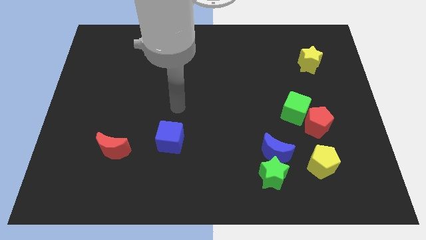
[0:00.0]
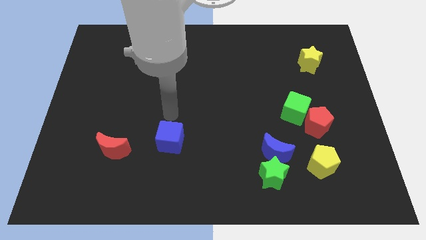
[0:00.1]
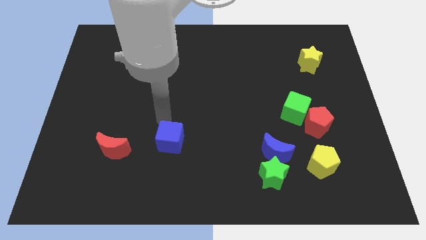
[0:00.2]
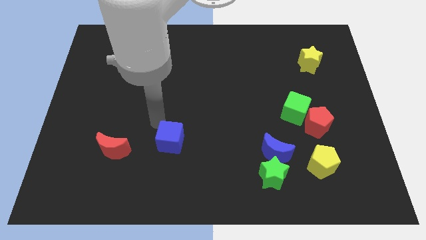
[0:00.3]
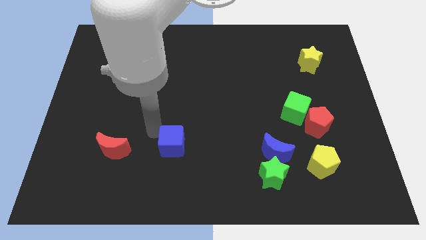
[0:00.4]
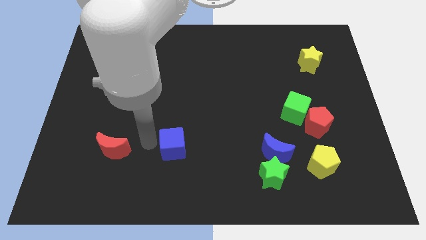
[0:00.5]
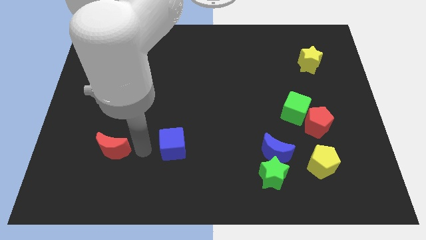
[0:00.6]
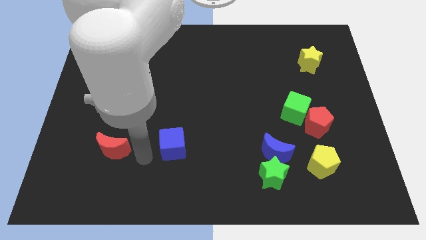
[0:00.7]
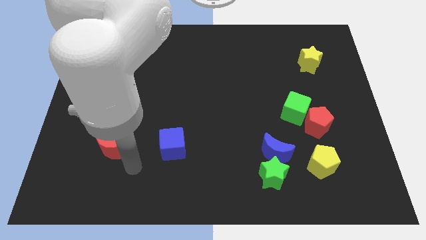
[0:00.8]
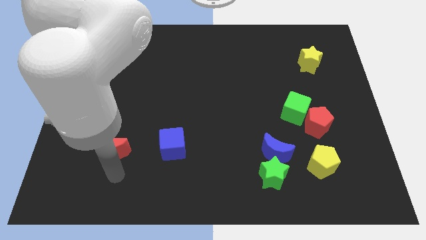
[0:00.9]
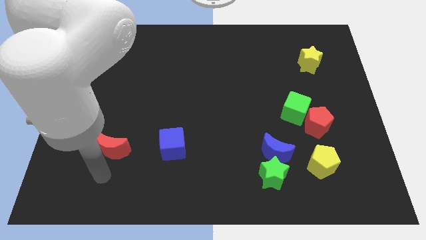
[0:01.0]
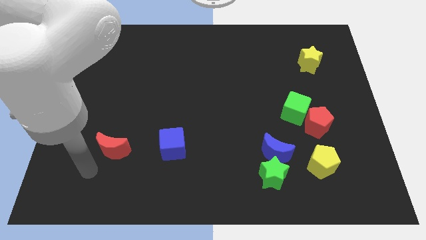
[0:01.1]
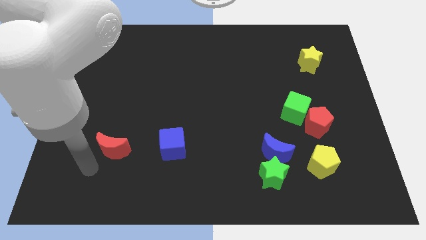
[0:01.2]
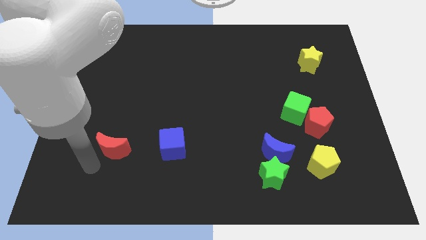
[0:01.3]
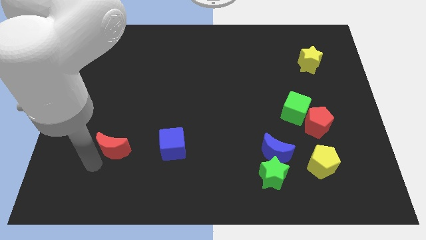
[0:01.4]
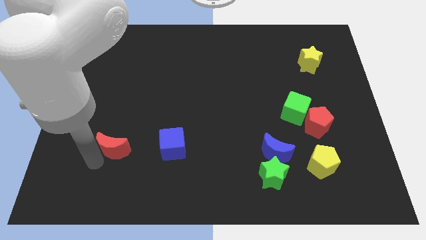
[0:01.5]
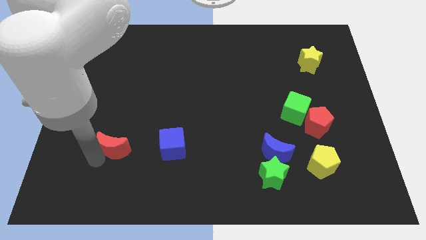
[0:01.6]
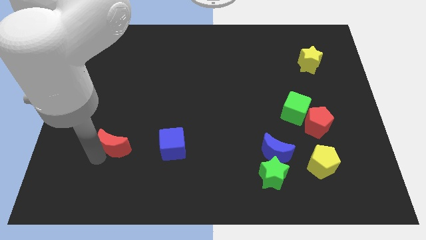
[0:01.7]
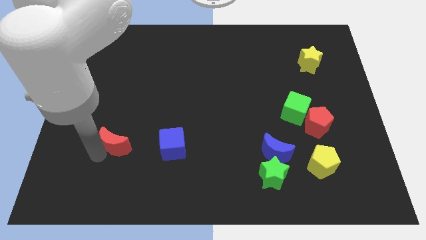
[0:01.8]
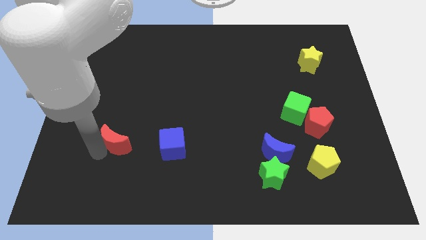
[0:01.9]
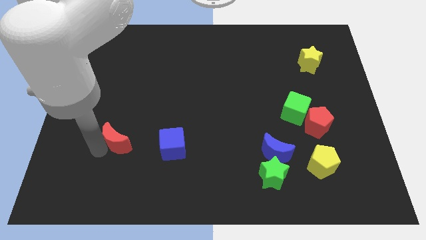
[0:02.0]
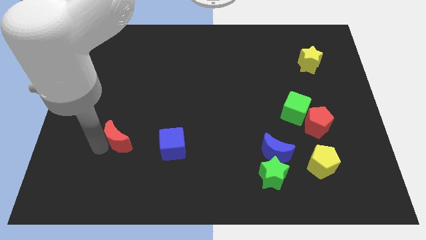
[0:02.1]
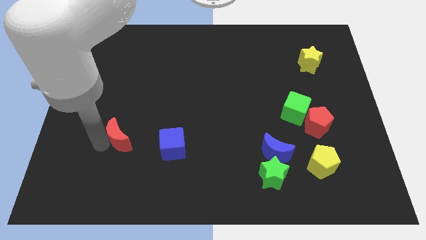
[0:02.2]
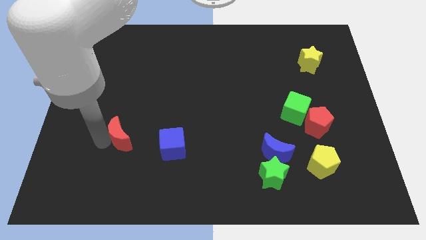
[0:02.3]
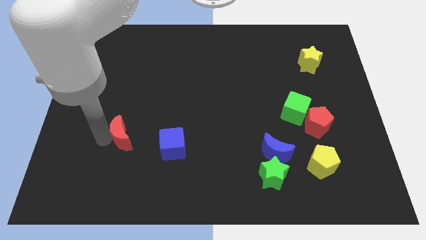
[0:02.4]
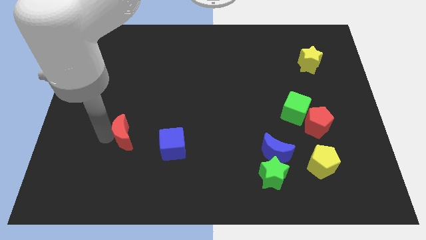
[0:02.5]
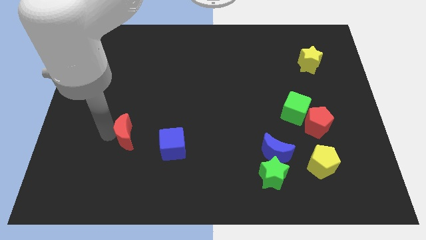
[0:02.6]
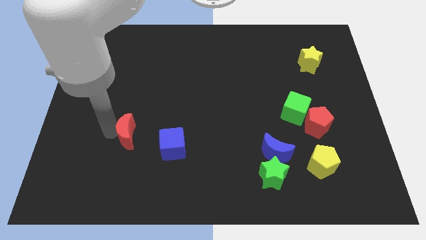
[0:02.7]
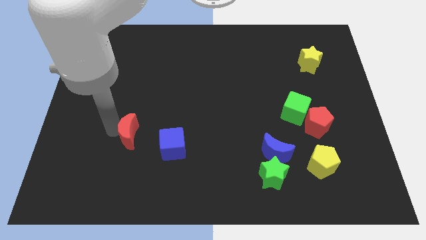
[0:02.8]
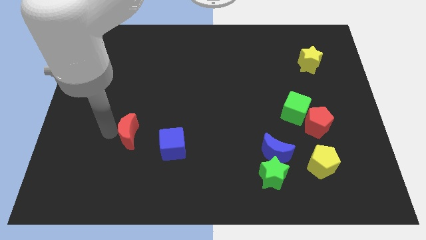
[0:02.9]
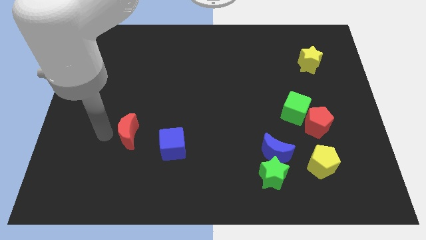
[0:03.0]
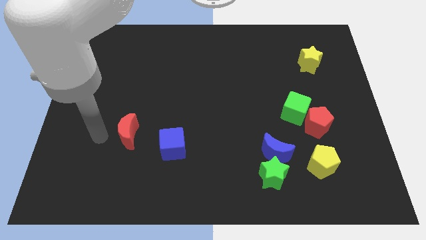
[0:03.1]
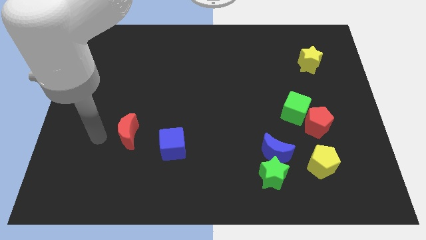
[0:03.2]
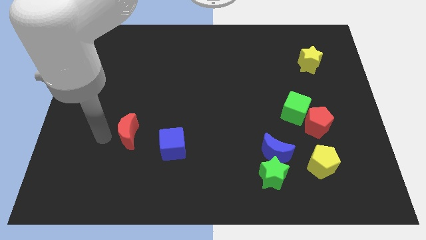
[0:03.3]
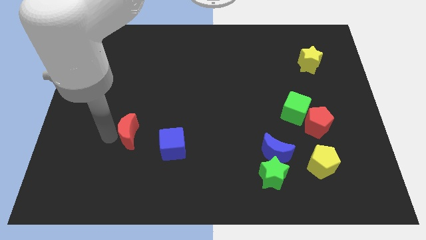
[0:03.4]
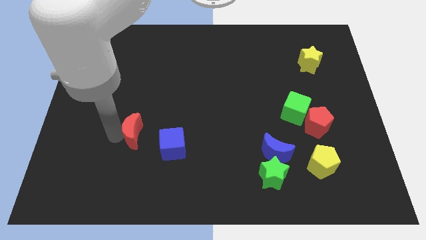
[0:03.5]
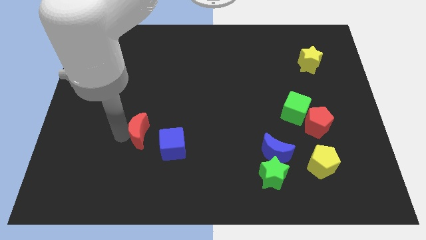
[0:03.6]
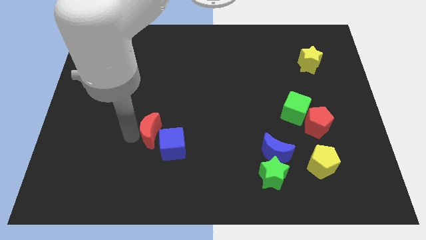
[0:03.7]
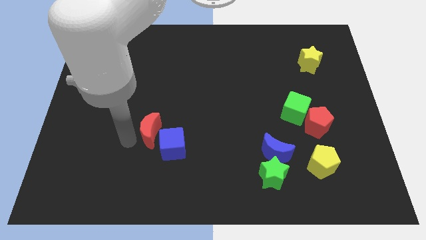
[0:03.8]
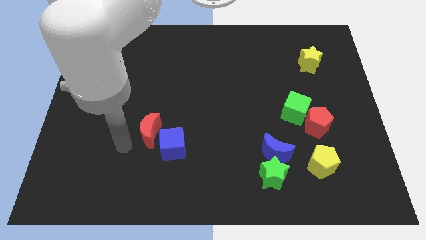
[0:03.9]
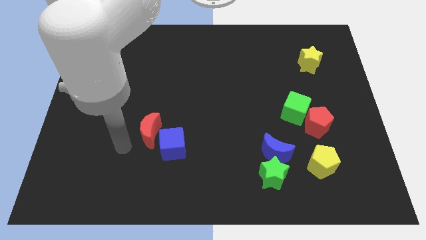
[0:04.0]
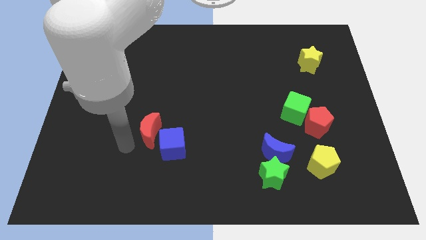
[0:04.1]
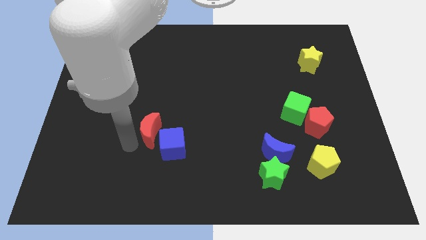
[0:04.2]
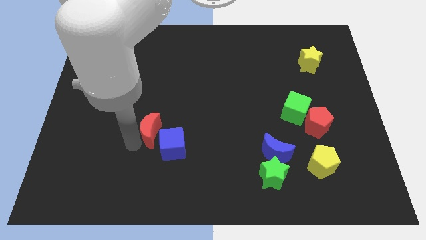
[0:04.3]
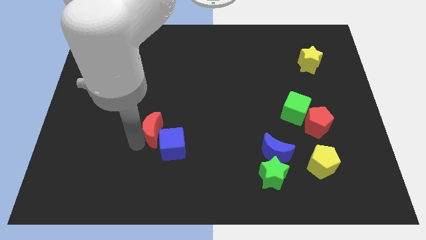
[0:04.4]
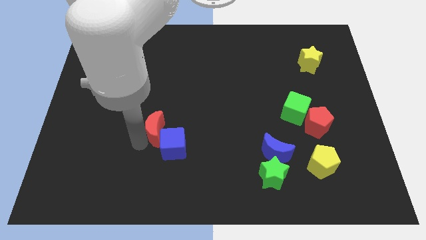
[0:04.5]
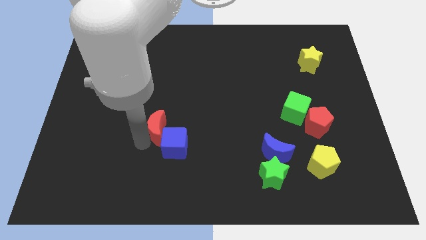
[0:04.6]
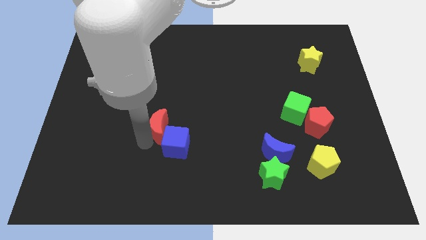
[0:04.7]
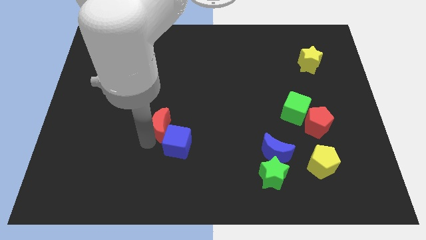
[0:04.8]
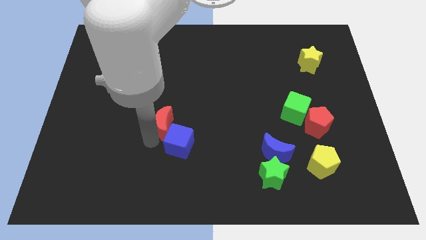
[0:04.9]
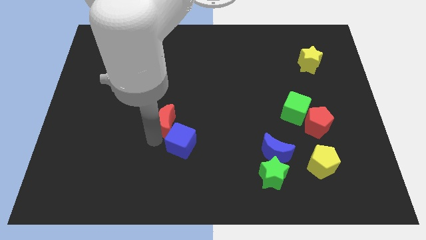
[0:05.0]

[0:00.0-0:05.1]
move the red moon to the middle

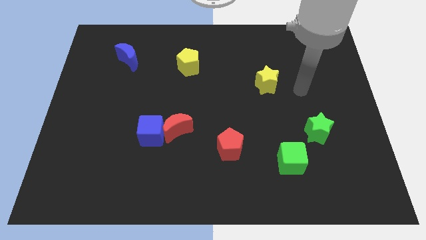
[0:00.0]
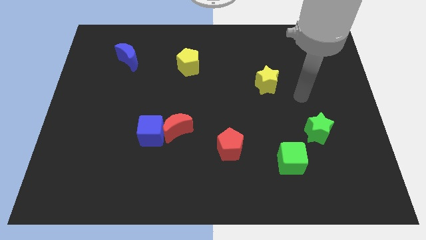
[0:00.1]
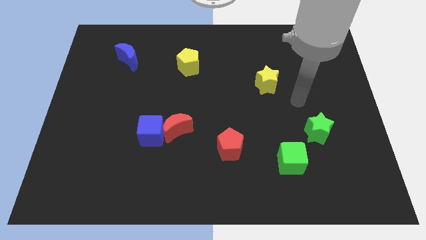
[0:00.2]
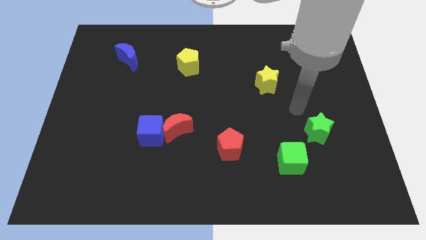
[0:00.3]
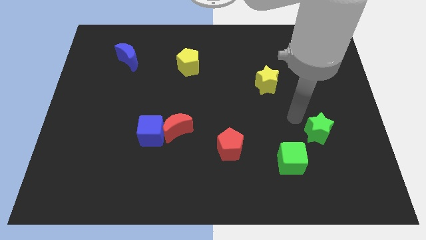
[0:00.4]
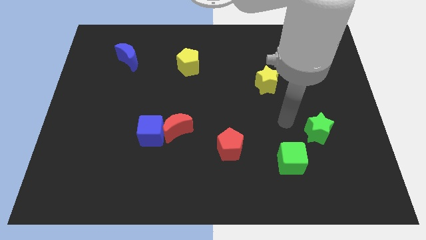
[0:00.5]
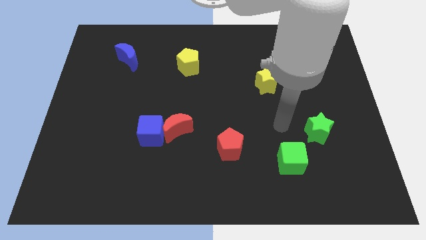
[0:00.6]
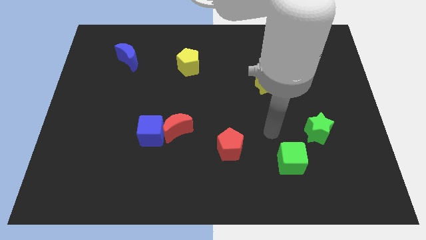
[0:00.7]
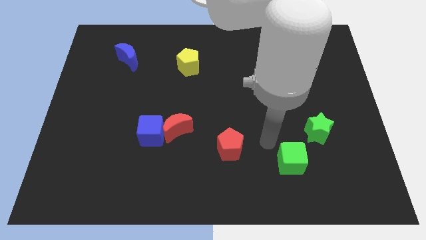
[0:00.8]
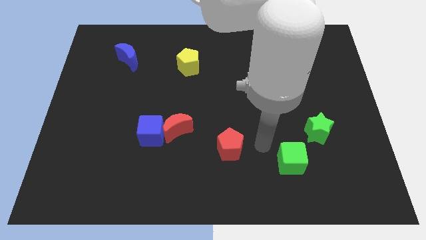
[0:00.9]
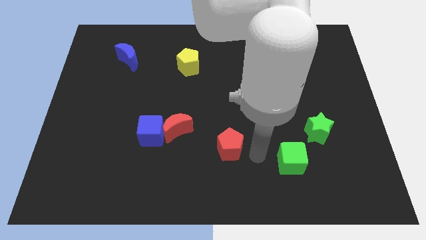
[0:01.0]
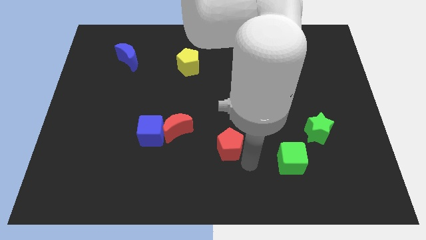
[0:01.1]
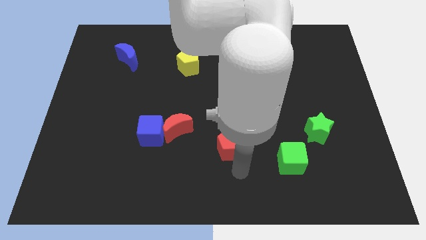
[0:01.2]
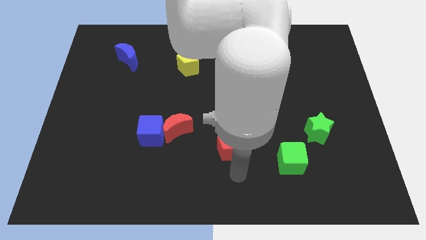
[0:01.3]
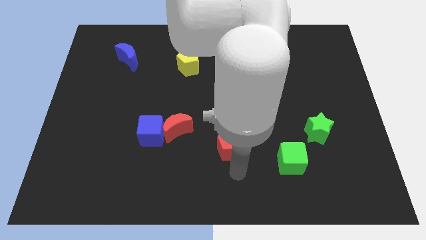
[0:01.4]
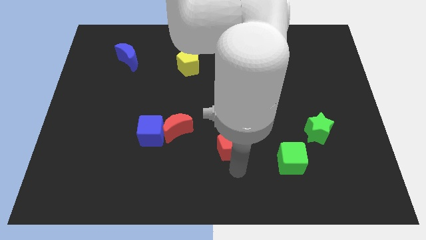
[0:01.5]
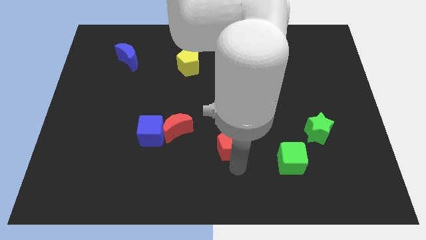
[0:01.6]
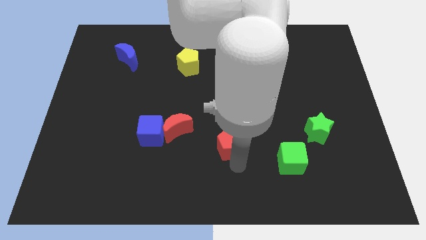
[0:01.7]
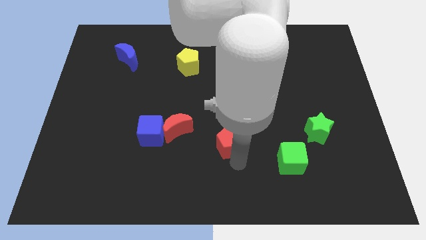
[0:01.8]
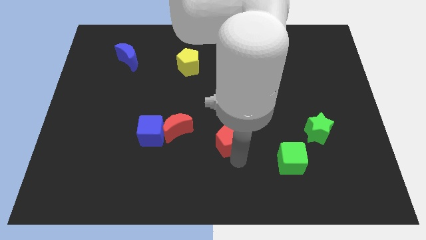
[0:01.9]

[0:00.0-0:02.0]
push the red pentagon to the middle of the board
